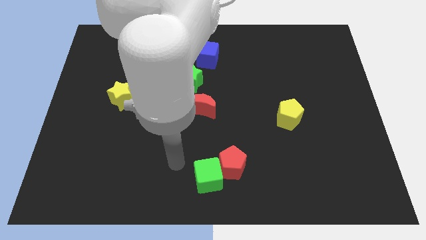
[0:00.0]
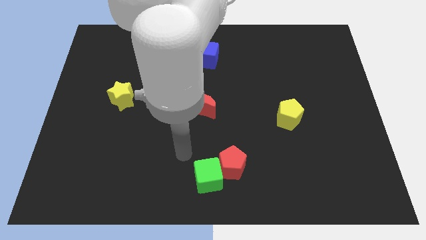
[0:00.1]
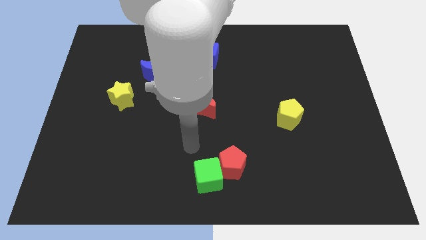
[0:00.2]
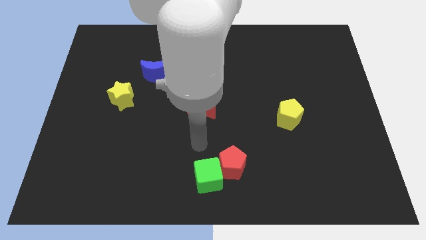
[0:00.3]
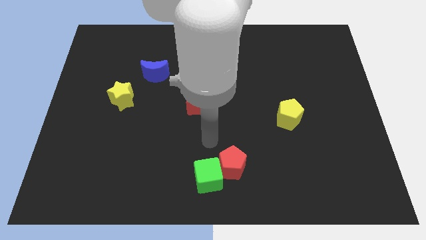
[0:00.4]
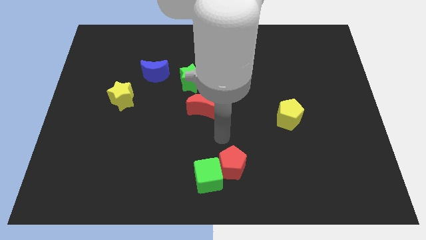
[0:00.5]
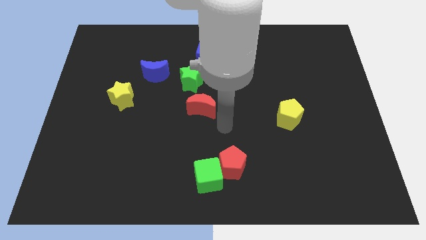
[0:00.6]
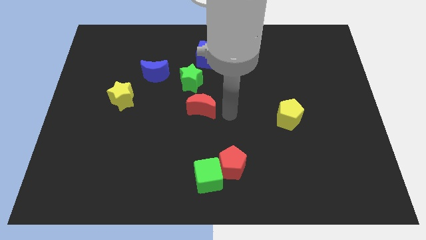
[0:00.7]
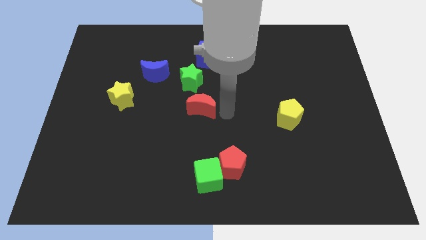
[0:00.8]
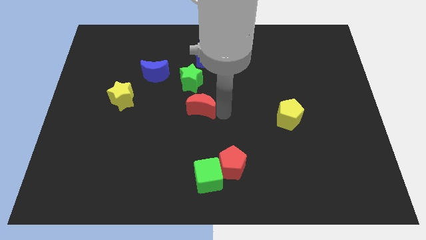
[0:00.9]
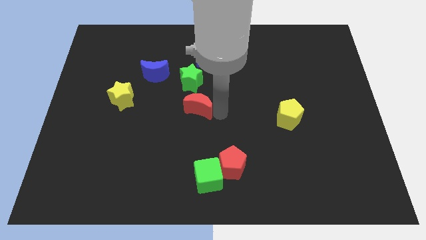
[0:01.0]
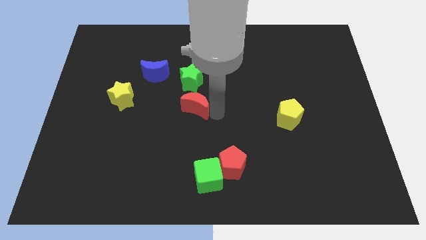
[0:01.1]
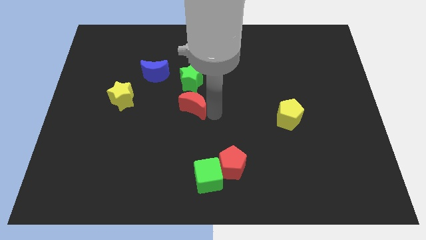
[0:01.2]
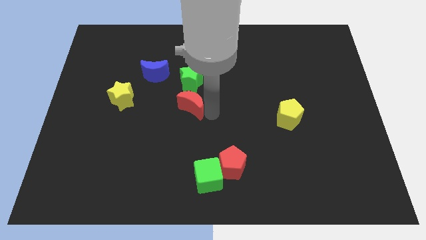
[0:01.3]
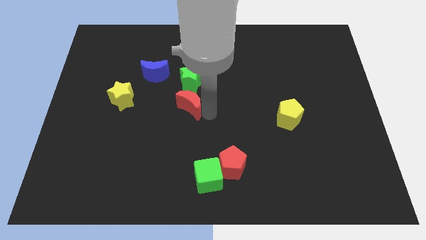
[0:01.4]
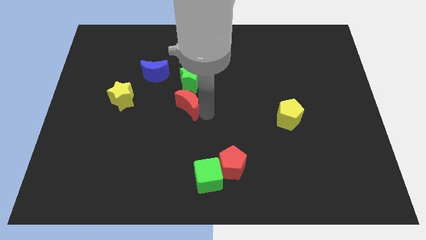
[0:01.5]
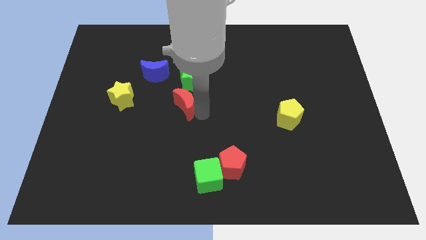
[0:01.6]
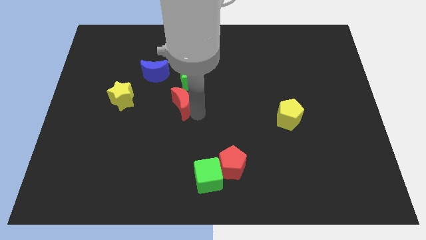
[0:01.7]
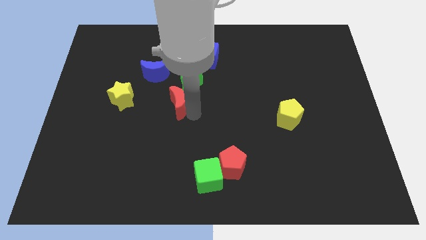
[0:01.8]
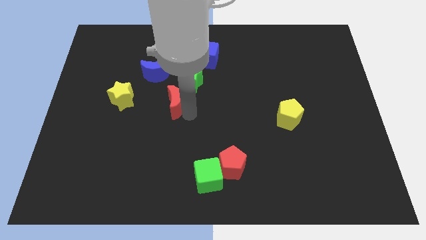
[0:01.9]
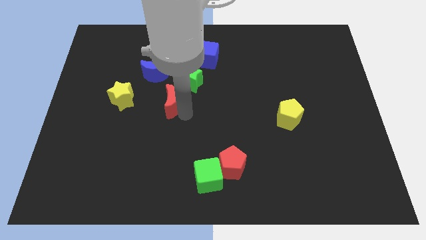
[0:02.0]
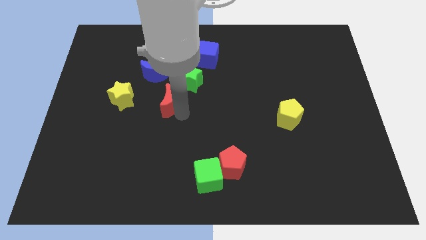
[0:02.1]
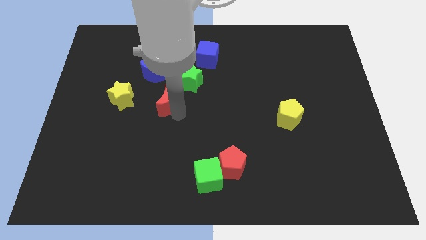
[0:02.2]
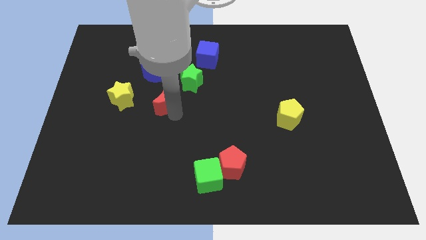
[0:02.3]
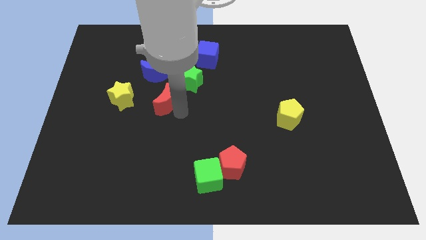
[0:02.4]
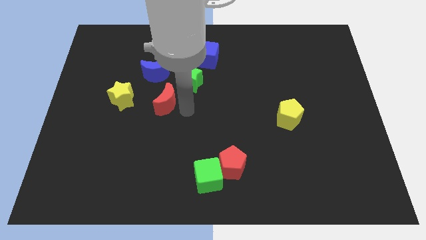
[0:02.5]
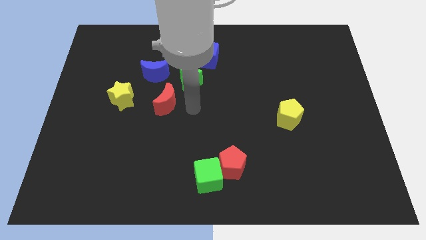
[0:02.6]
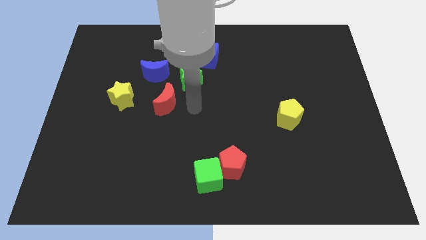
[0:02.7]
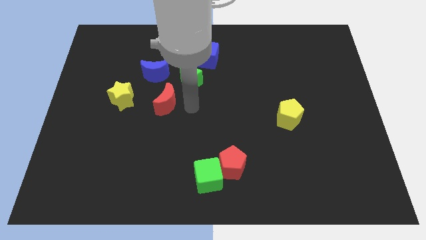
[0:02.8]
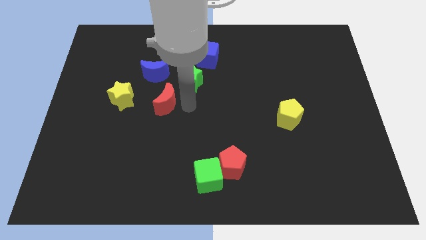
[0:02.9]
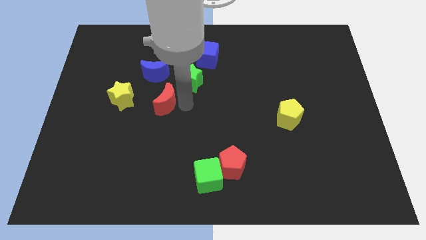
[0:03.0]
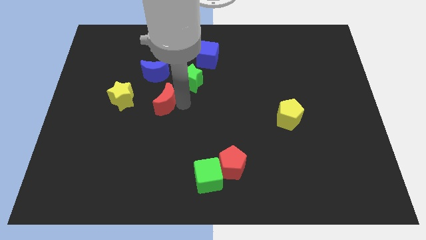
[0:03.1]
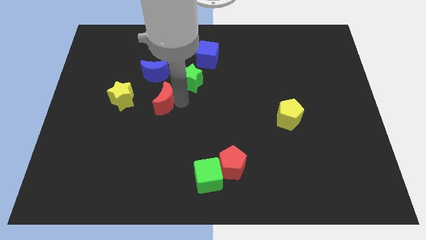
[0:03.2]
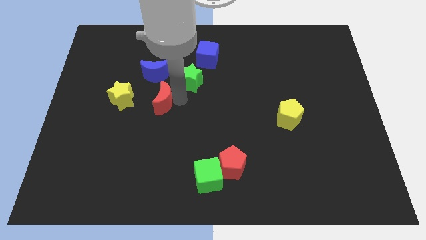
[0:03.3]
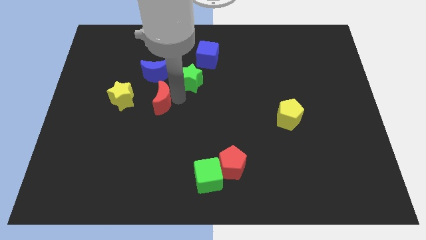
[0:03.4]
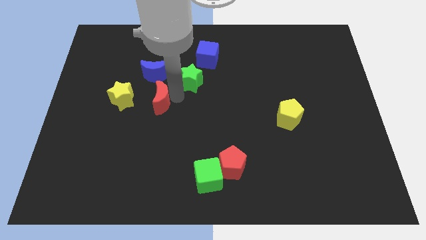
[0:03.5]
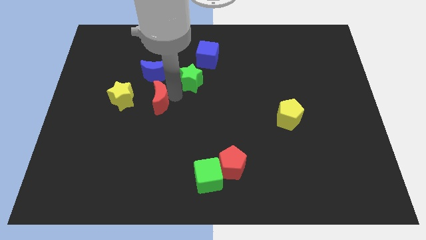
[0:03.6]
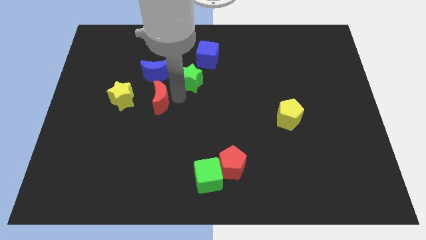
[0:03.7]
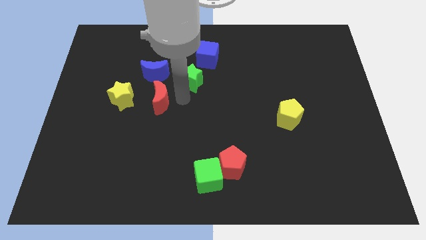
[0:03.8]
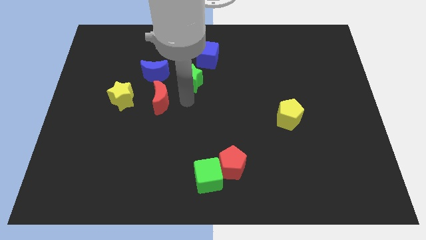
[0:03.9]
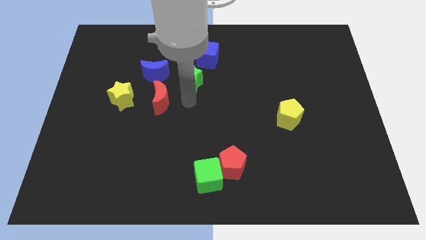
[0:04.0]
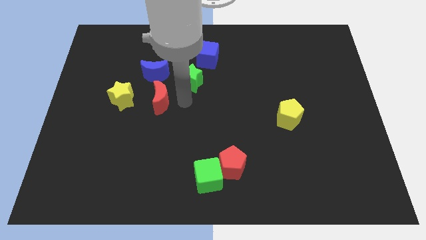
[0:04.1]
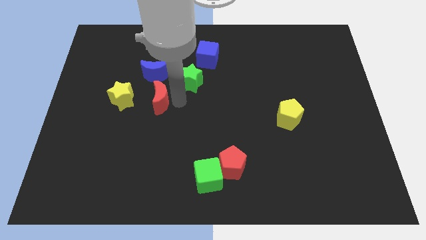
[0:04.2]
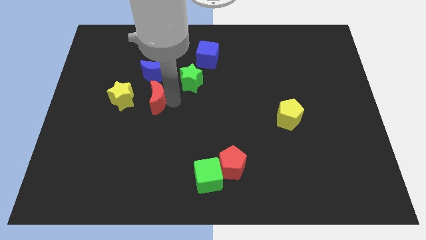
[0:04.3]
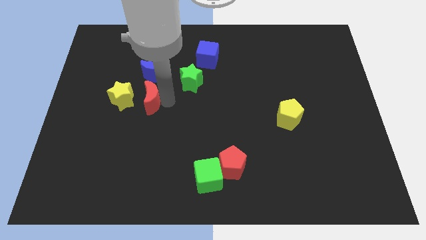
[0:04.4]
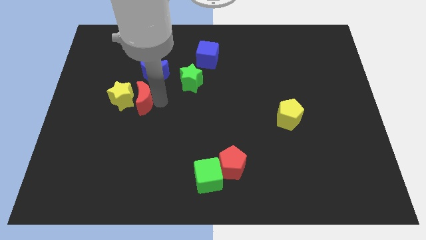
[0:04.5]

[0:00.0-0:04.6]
move the red moon close to the yellow star

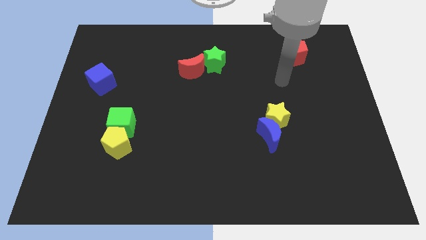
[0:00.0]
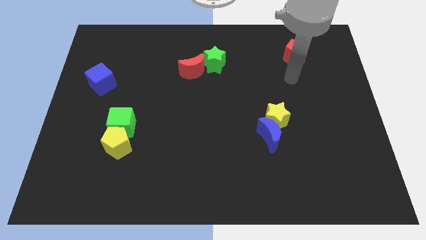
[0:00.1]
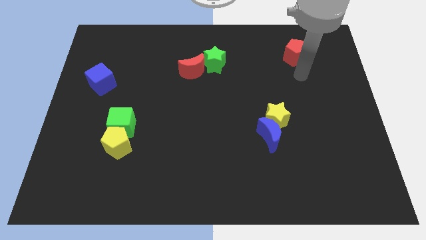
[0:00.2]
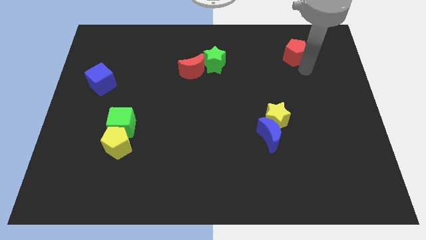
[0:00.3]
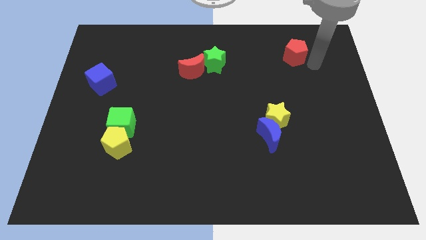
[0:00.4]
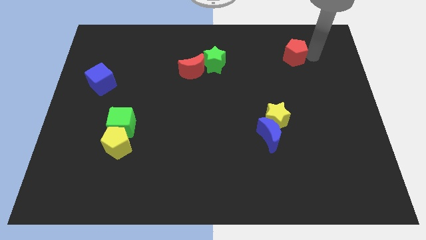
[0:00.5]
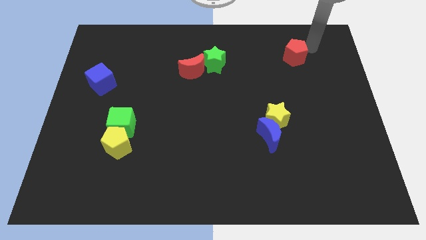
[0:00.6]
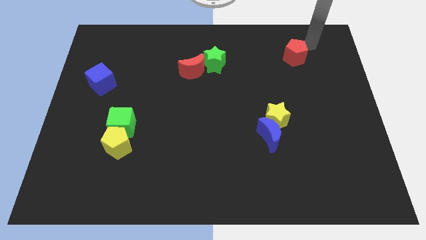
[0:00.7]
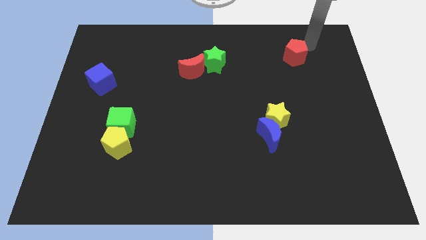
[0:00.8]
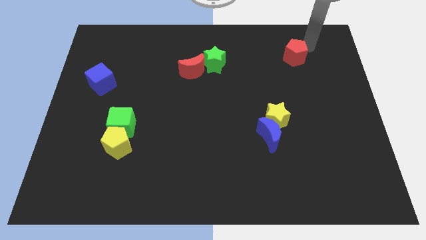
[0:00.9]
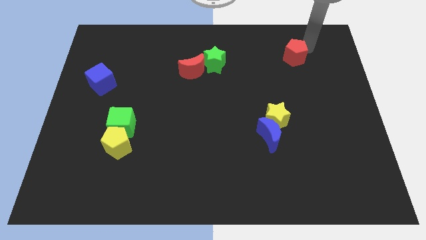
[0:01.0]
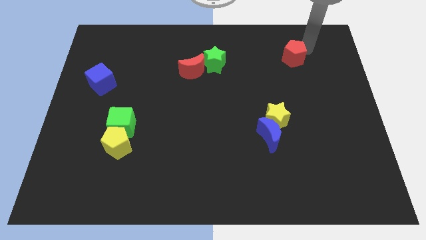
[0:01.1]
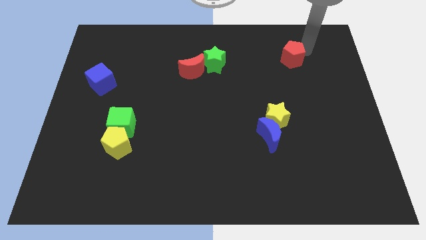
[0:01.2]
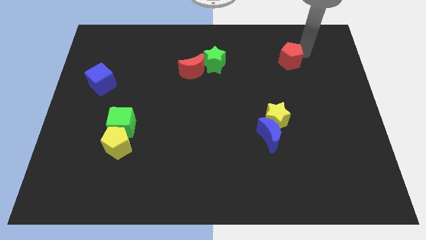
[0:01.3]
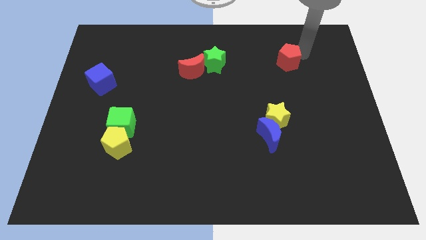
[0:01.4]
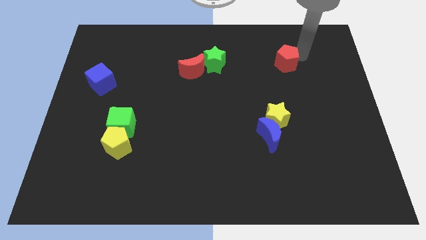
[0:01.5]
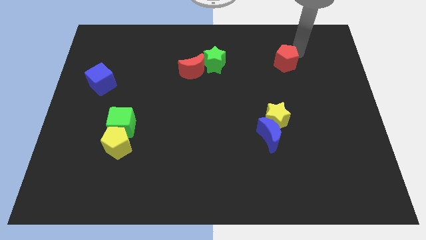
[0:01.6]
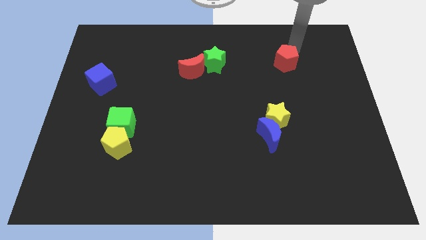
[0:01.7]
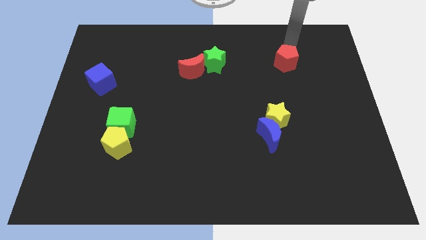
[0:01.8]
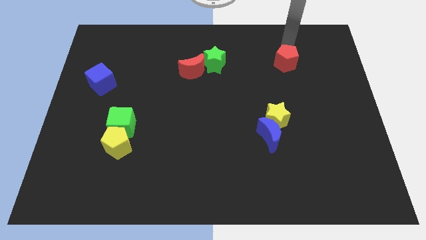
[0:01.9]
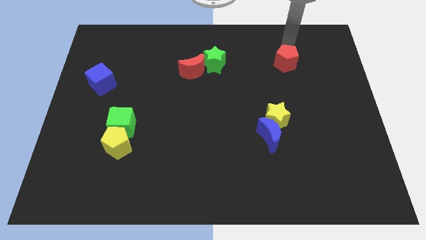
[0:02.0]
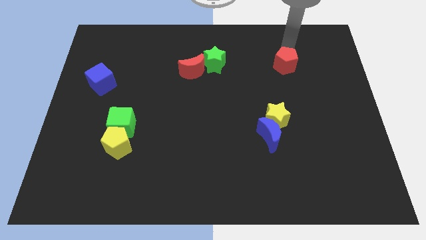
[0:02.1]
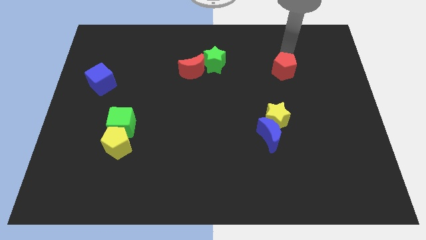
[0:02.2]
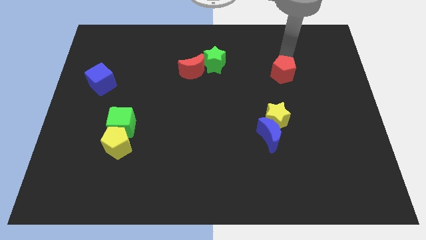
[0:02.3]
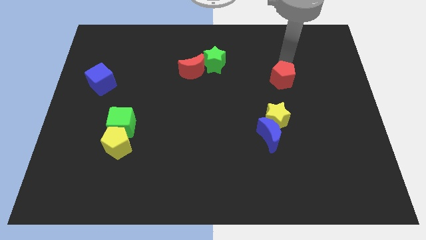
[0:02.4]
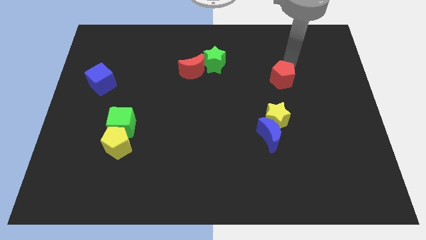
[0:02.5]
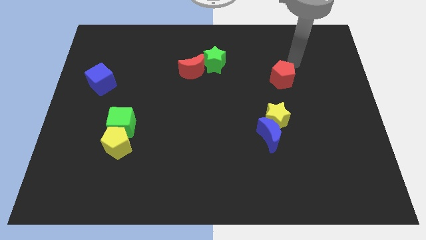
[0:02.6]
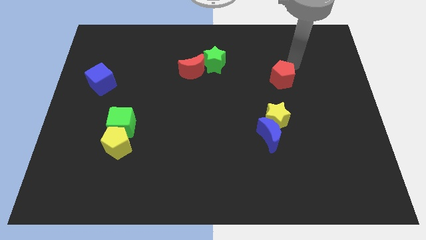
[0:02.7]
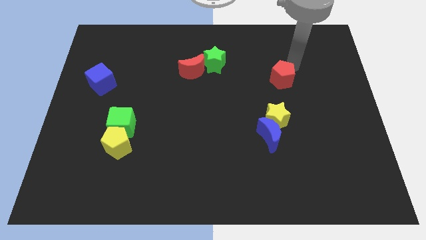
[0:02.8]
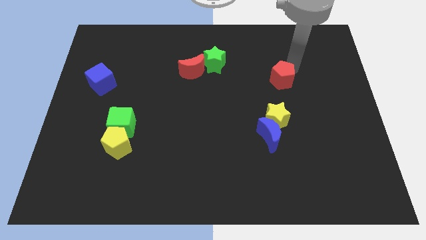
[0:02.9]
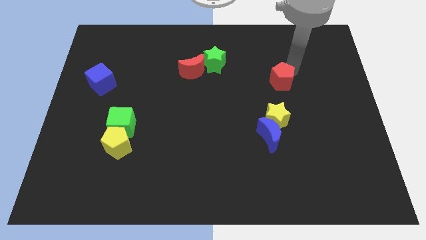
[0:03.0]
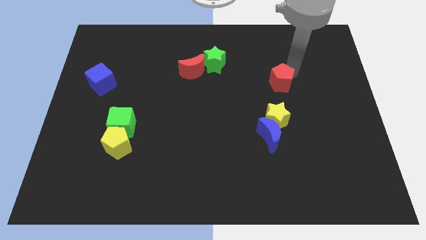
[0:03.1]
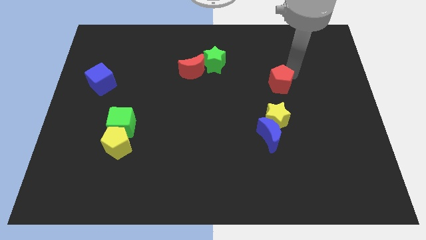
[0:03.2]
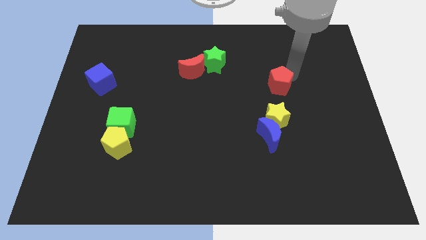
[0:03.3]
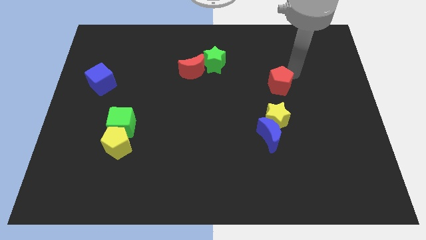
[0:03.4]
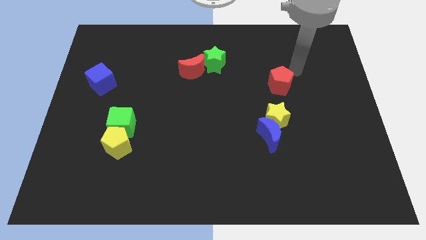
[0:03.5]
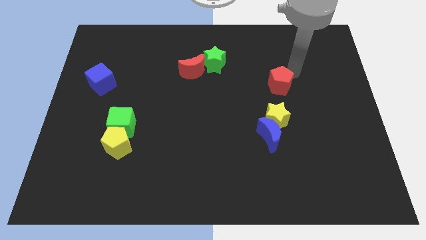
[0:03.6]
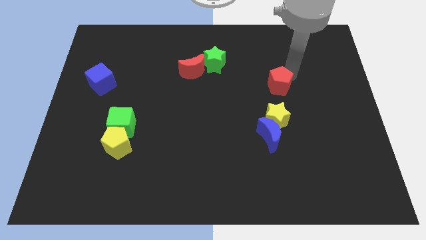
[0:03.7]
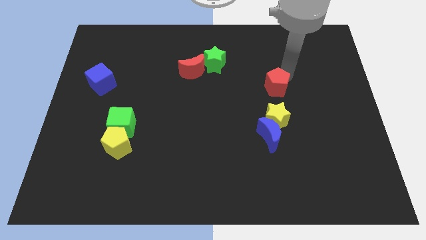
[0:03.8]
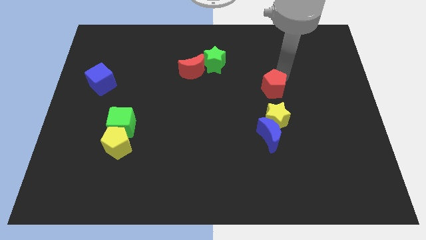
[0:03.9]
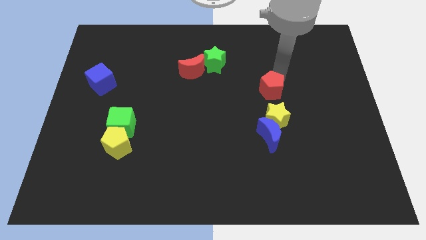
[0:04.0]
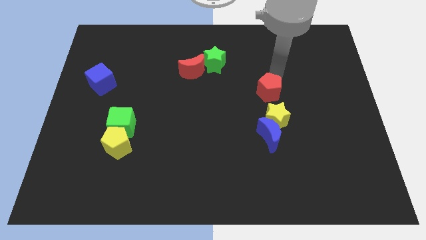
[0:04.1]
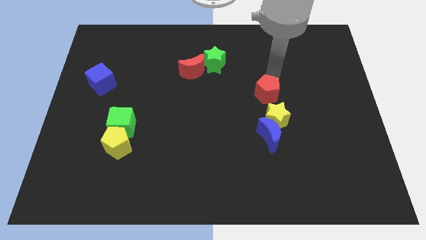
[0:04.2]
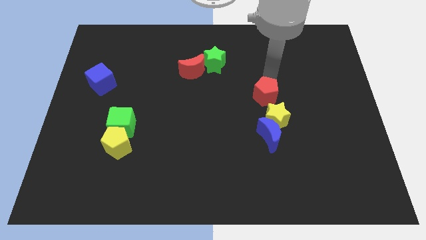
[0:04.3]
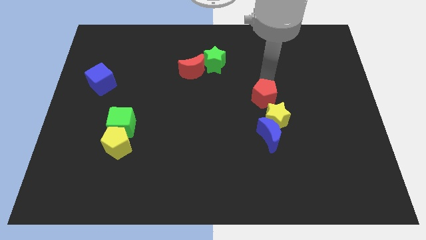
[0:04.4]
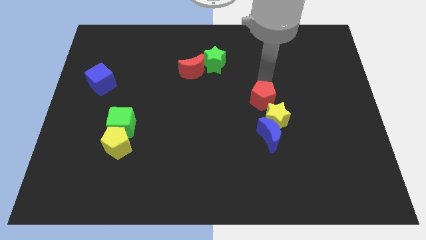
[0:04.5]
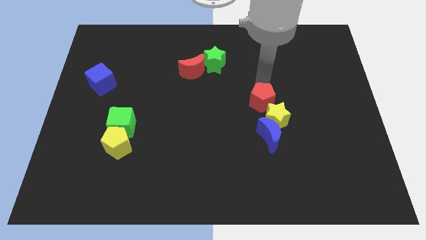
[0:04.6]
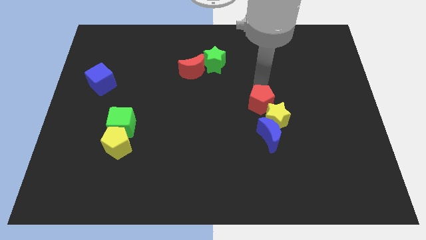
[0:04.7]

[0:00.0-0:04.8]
push the red pentagon to the yellow star
